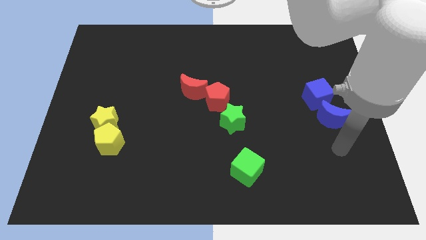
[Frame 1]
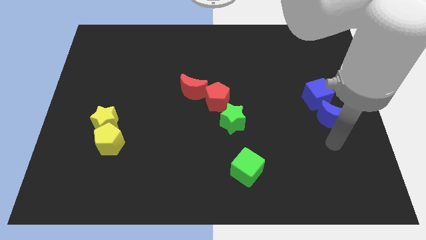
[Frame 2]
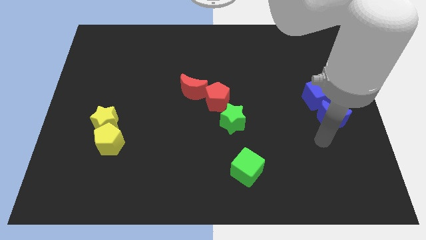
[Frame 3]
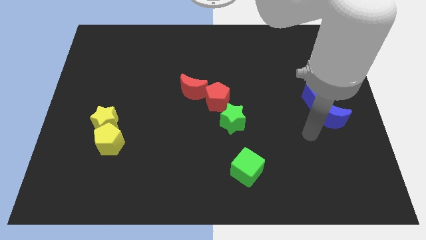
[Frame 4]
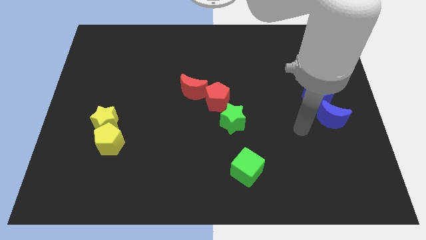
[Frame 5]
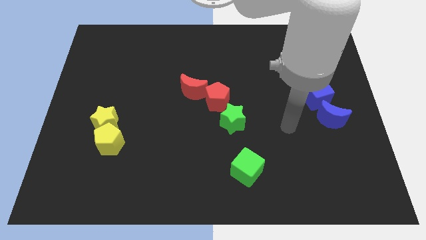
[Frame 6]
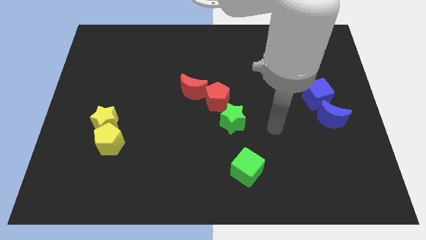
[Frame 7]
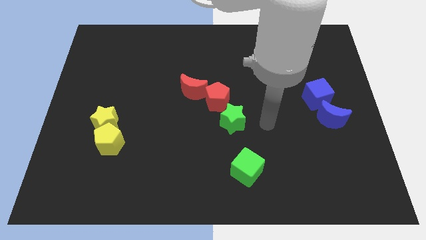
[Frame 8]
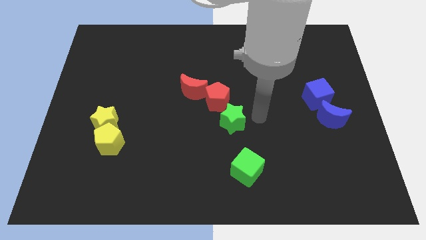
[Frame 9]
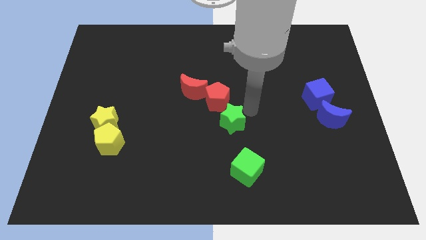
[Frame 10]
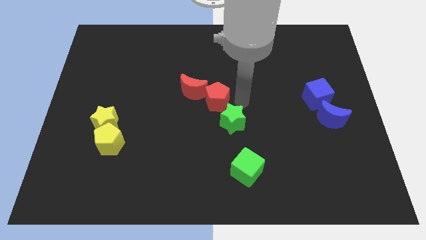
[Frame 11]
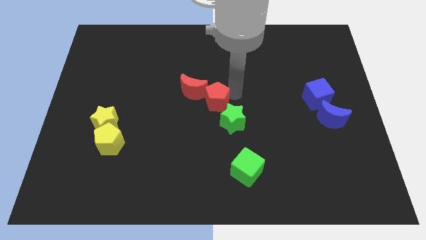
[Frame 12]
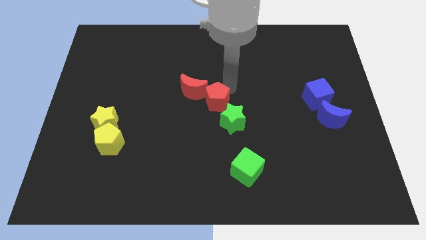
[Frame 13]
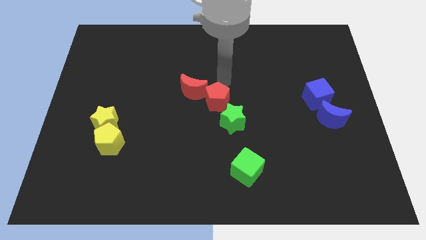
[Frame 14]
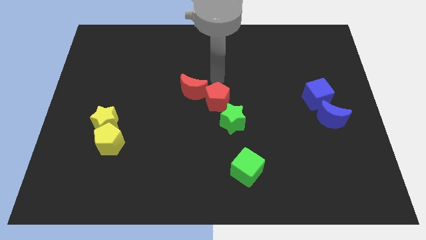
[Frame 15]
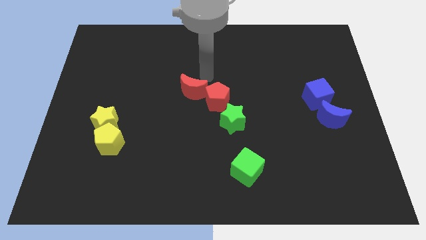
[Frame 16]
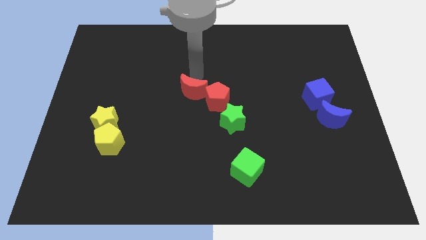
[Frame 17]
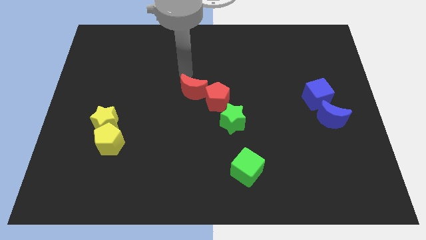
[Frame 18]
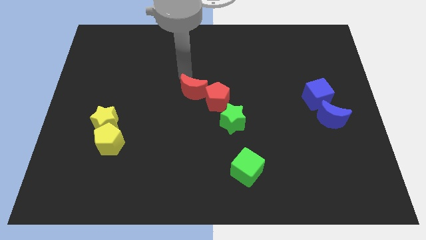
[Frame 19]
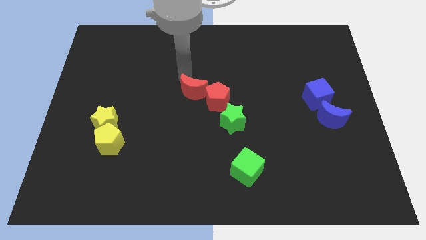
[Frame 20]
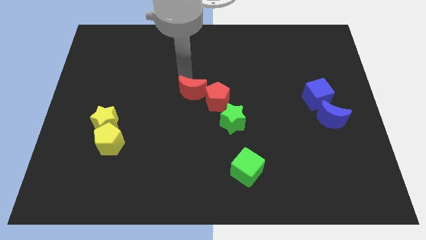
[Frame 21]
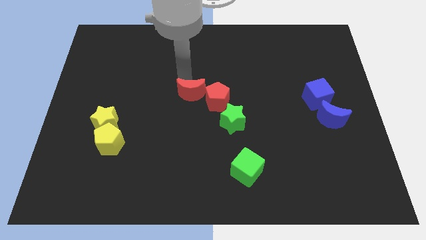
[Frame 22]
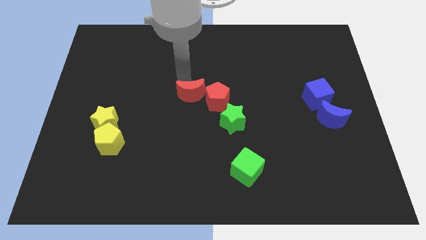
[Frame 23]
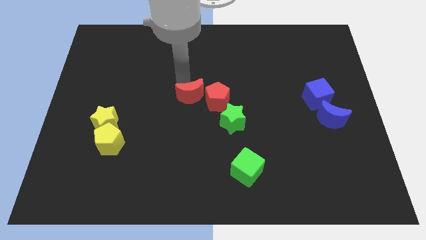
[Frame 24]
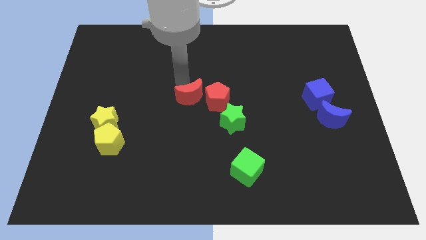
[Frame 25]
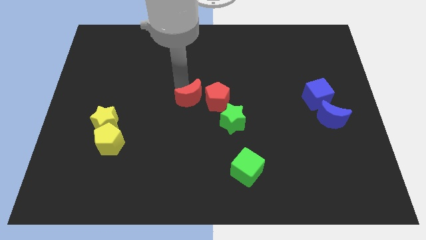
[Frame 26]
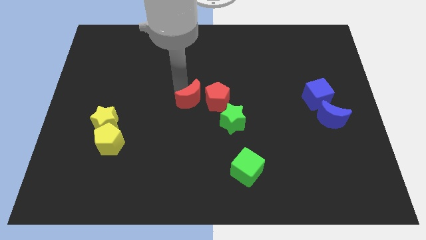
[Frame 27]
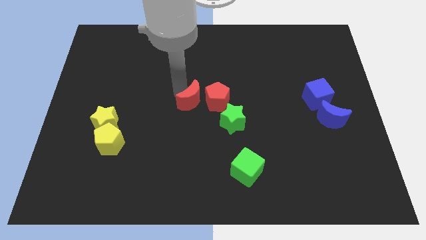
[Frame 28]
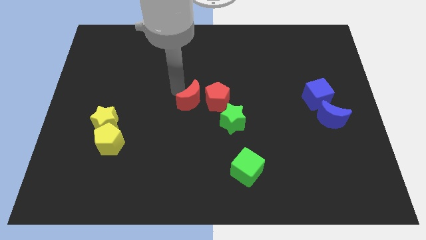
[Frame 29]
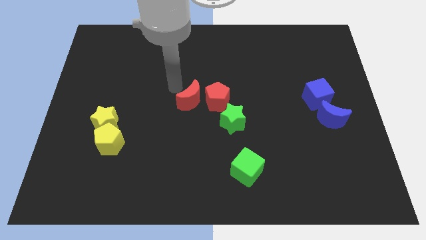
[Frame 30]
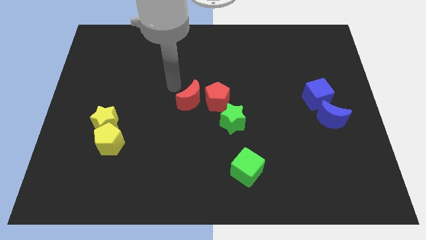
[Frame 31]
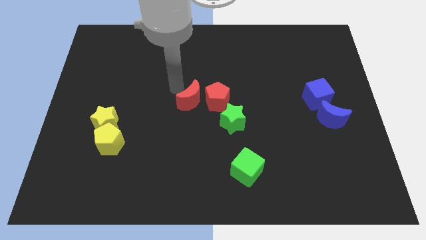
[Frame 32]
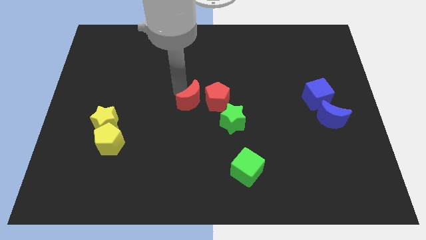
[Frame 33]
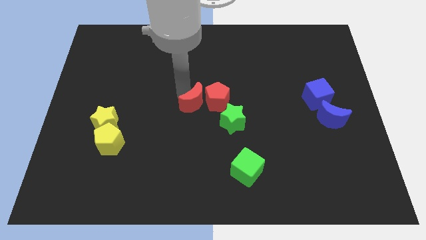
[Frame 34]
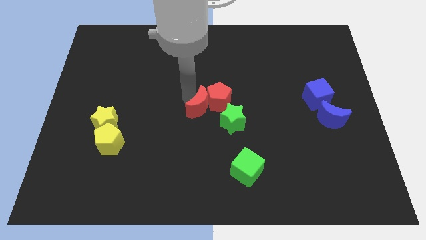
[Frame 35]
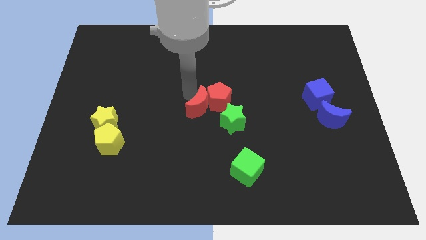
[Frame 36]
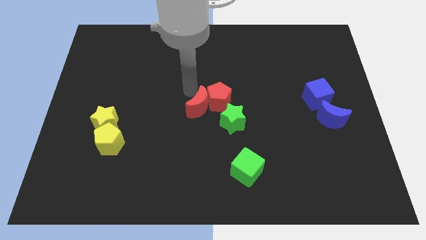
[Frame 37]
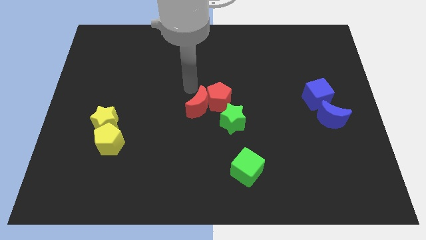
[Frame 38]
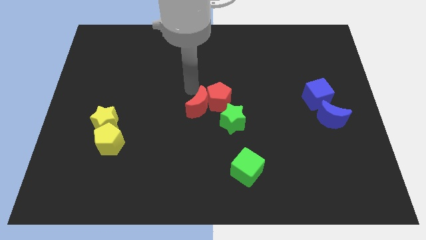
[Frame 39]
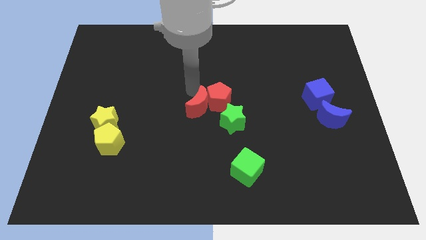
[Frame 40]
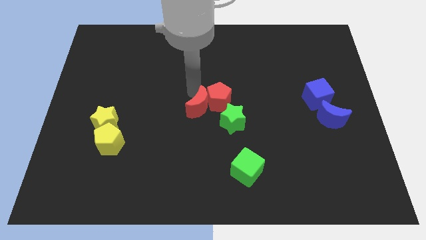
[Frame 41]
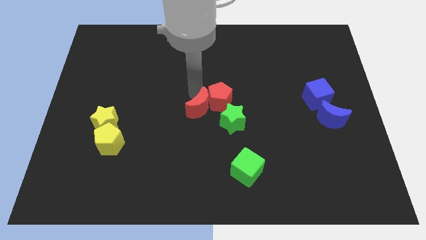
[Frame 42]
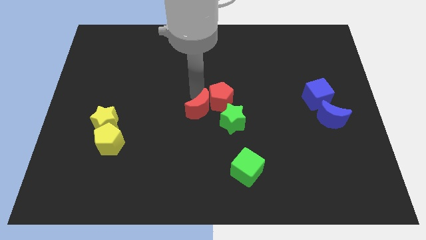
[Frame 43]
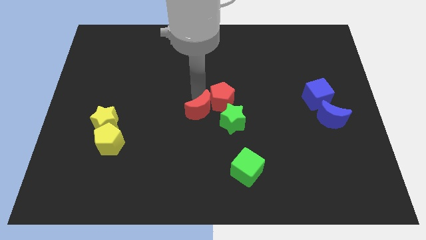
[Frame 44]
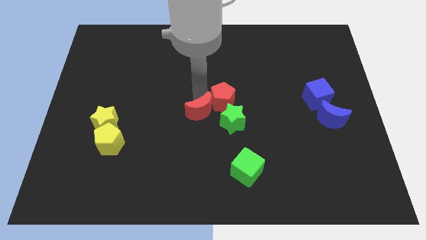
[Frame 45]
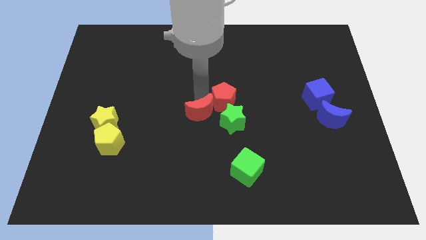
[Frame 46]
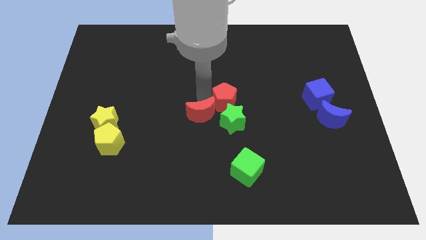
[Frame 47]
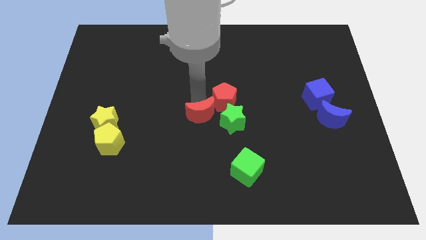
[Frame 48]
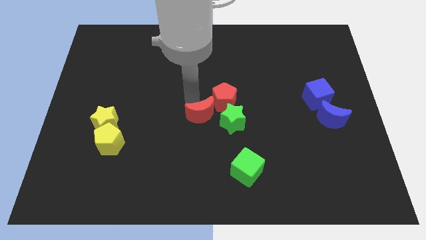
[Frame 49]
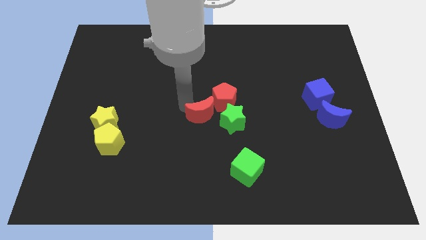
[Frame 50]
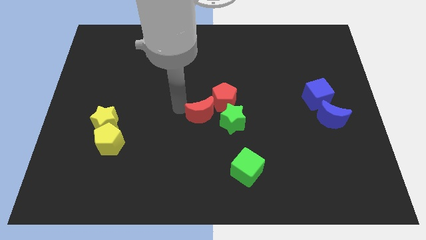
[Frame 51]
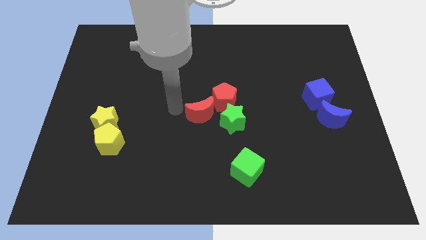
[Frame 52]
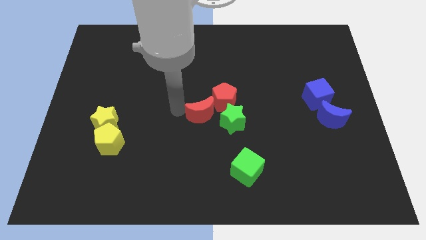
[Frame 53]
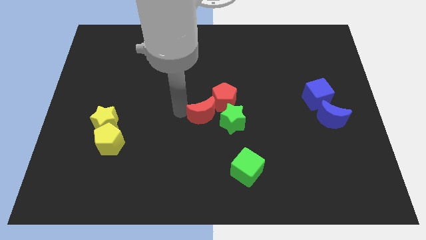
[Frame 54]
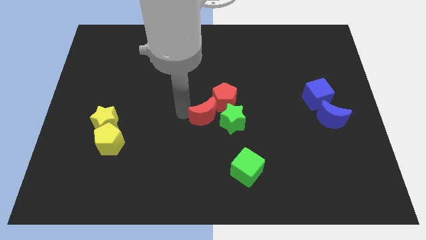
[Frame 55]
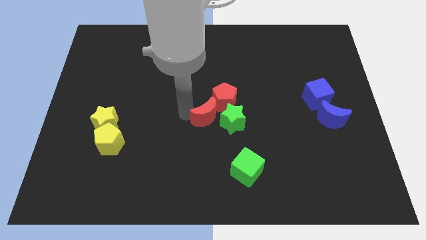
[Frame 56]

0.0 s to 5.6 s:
push the red moon towards the green star

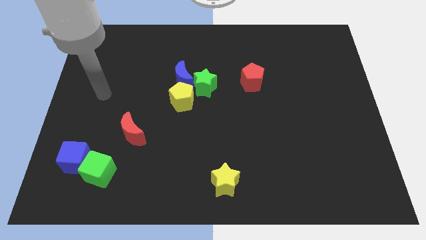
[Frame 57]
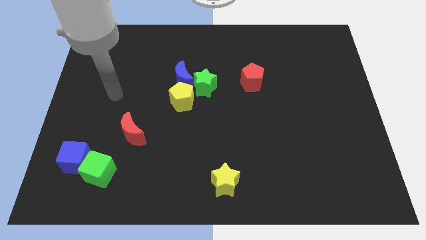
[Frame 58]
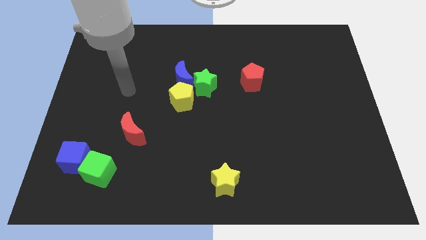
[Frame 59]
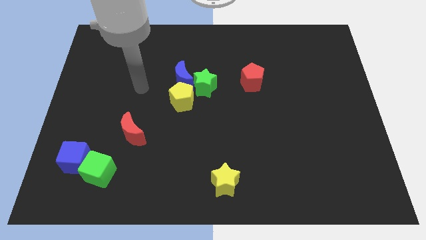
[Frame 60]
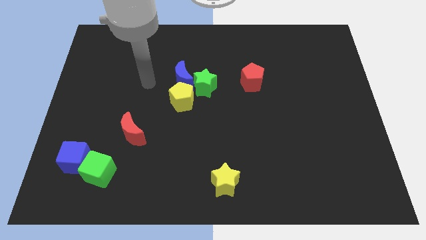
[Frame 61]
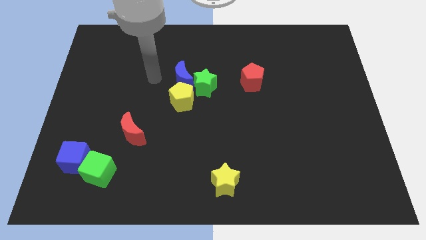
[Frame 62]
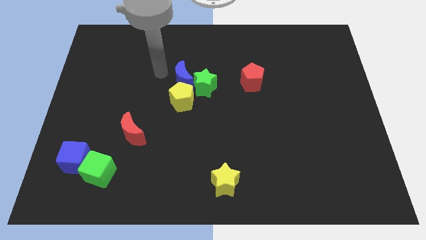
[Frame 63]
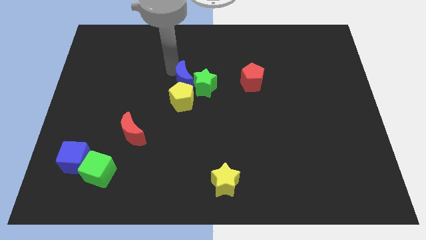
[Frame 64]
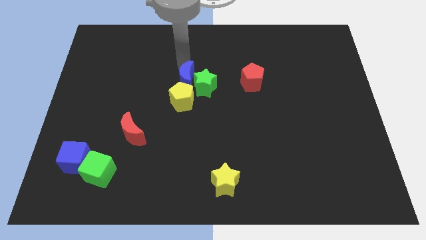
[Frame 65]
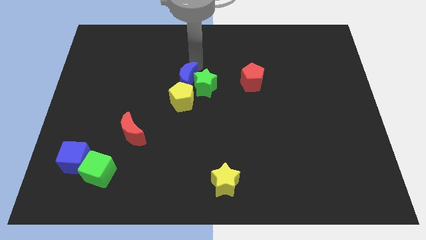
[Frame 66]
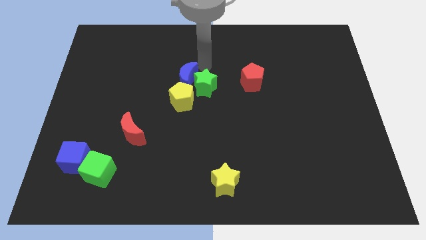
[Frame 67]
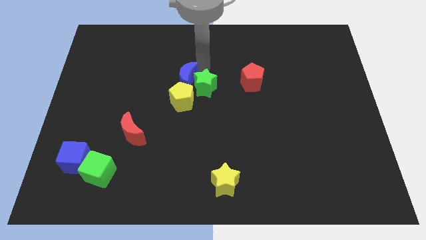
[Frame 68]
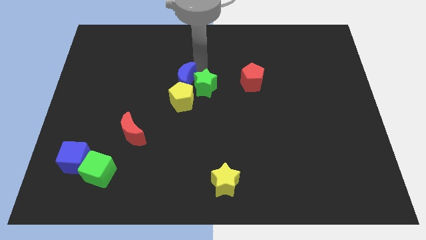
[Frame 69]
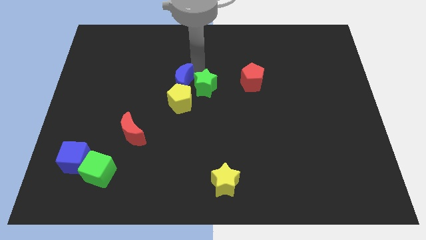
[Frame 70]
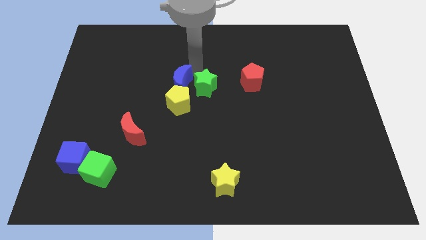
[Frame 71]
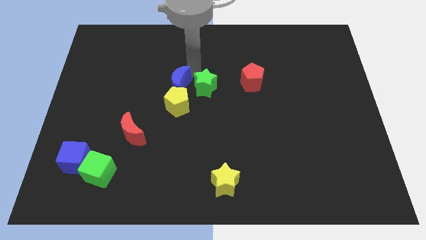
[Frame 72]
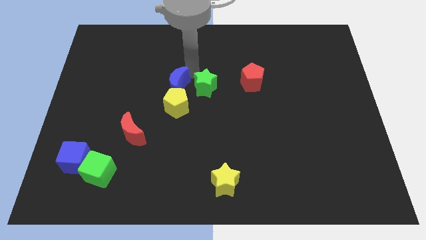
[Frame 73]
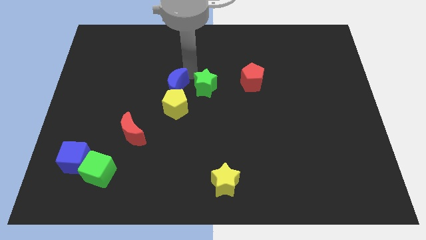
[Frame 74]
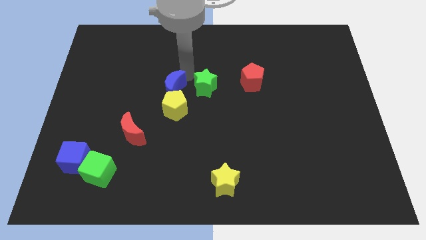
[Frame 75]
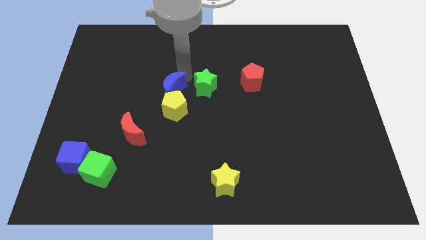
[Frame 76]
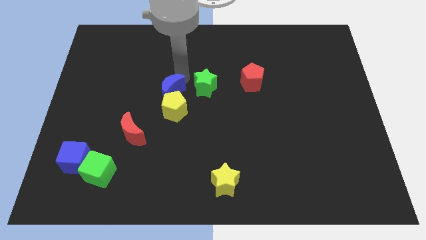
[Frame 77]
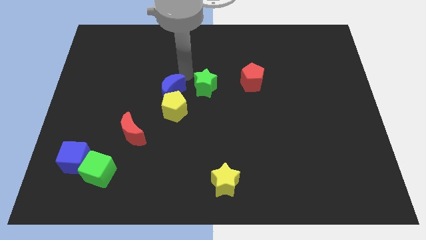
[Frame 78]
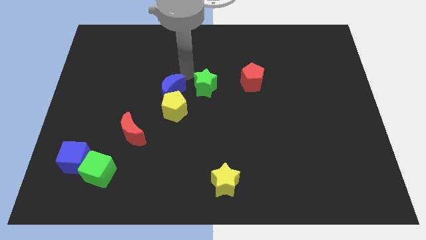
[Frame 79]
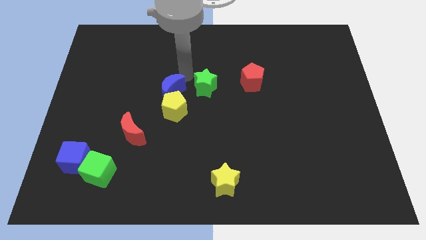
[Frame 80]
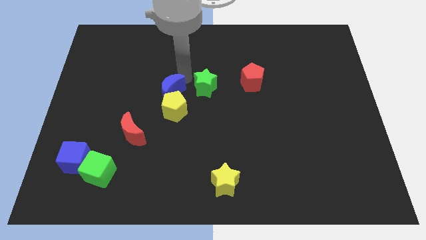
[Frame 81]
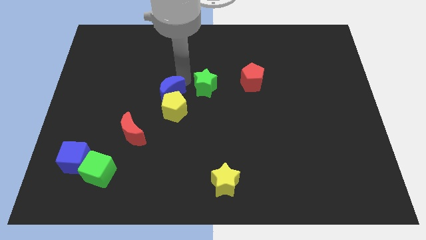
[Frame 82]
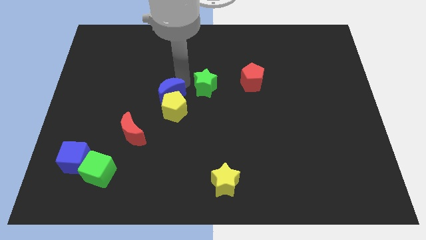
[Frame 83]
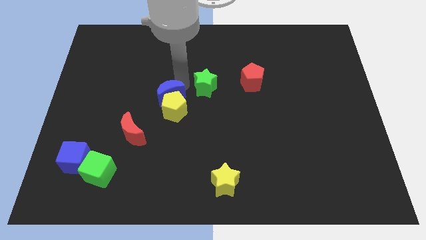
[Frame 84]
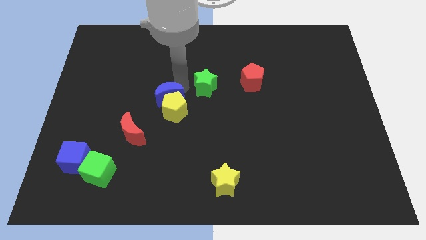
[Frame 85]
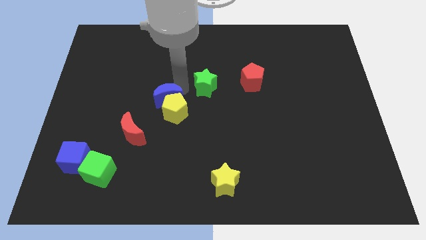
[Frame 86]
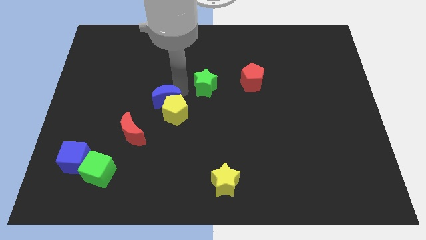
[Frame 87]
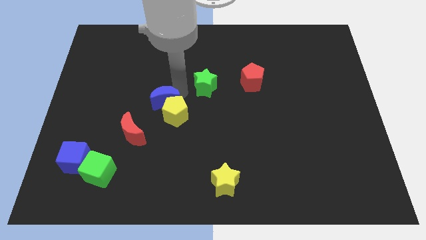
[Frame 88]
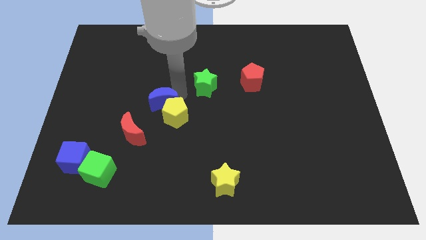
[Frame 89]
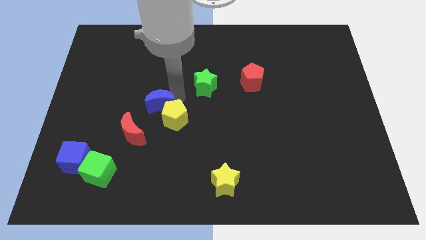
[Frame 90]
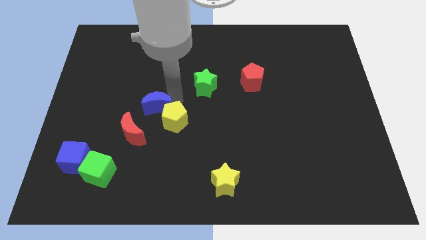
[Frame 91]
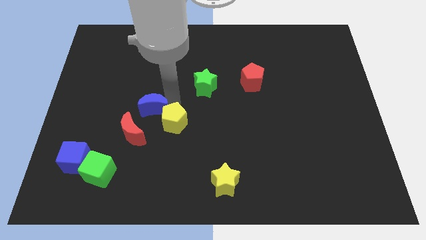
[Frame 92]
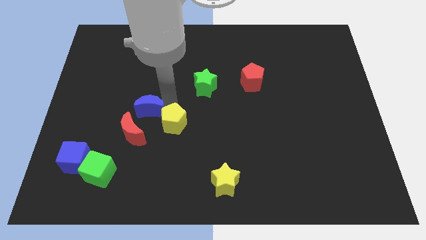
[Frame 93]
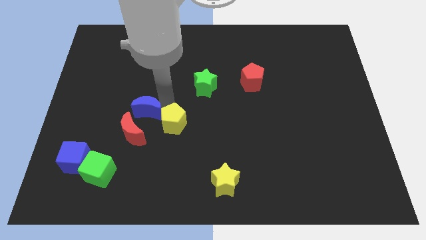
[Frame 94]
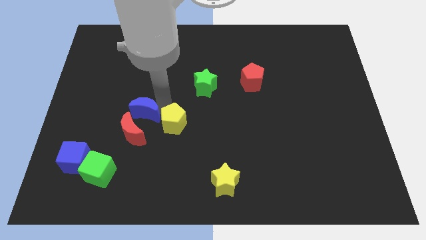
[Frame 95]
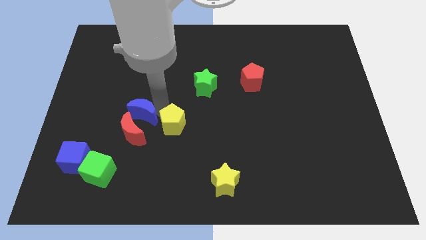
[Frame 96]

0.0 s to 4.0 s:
push the blue moon to the red moon
